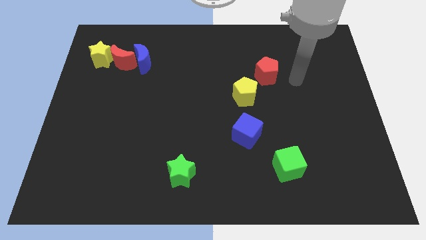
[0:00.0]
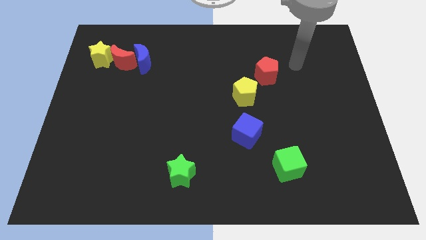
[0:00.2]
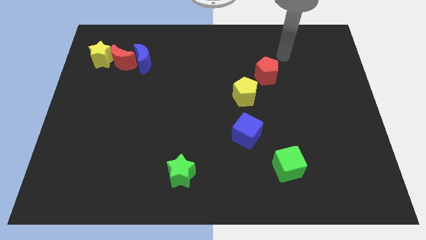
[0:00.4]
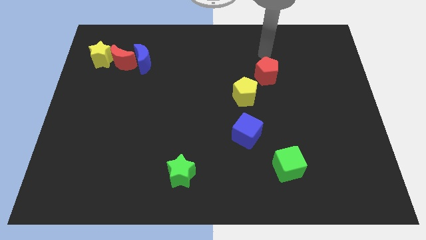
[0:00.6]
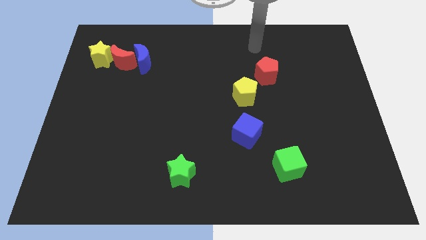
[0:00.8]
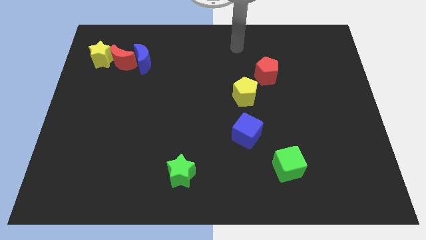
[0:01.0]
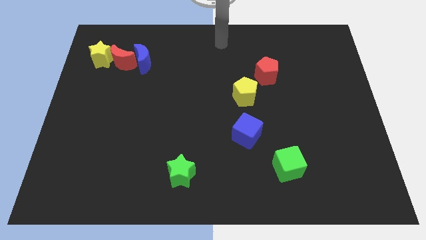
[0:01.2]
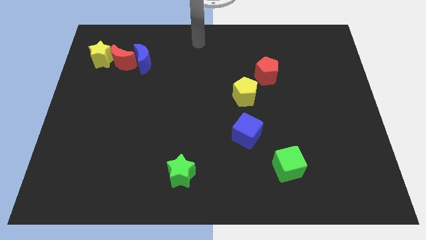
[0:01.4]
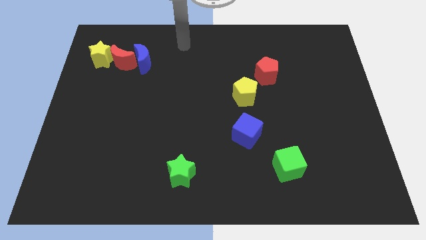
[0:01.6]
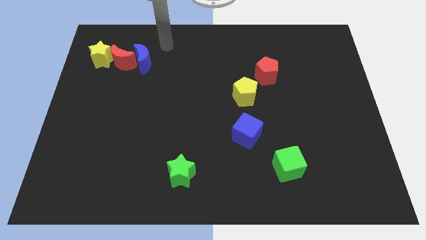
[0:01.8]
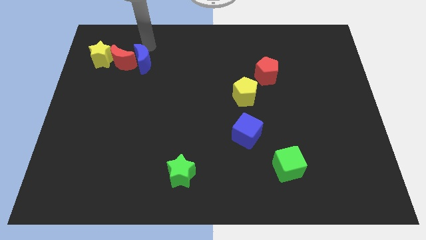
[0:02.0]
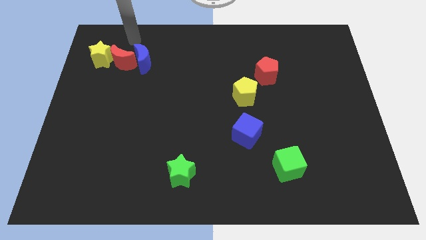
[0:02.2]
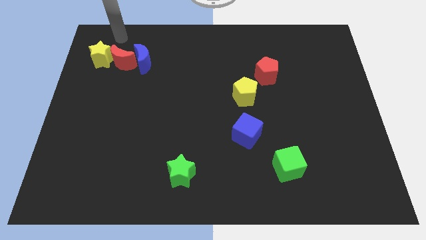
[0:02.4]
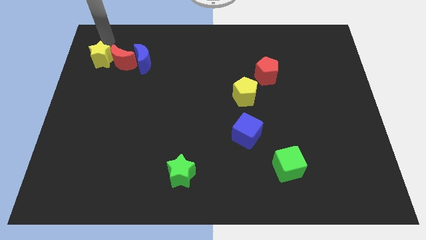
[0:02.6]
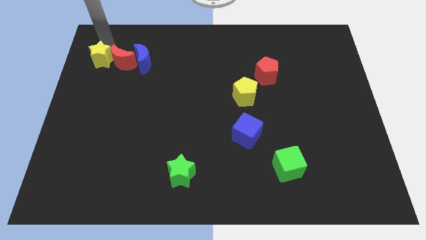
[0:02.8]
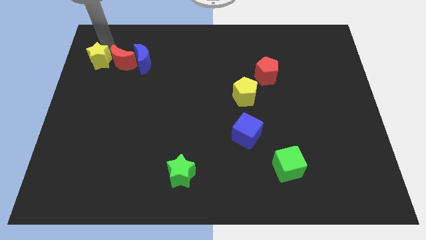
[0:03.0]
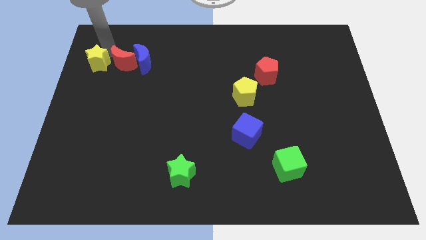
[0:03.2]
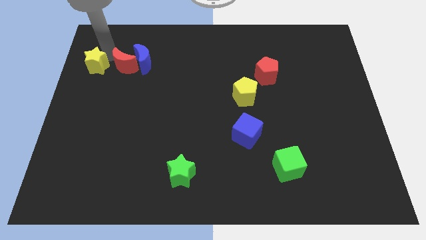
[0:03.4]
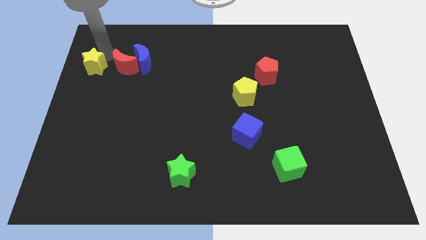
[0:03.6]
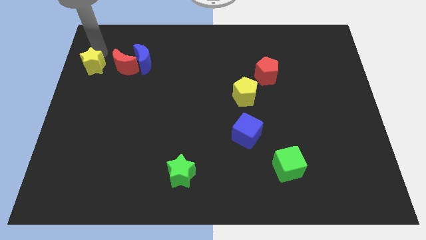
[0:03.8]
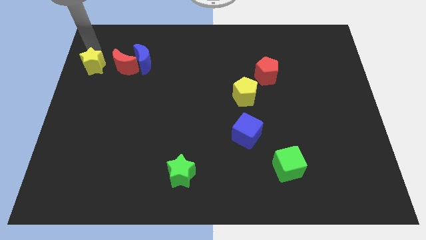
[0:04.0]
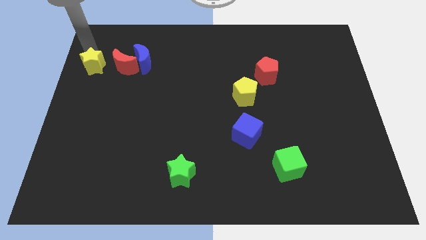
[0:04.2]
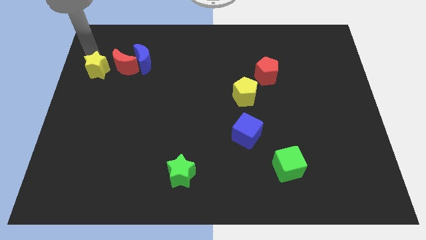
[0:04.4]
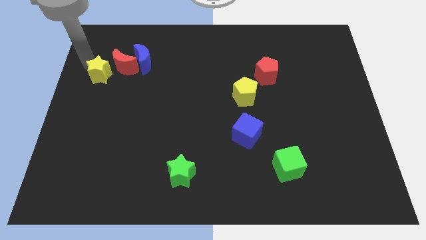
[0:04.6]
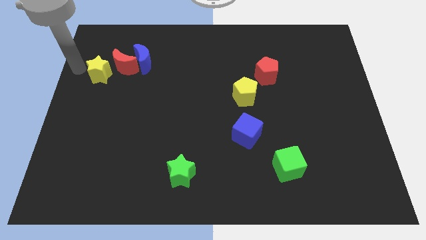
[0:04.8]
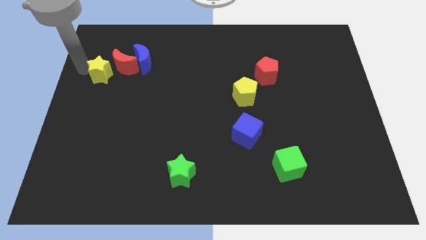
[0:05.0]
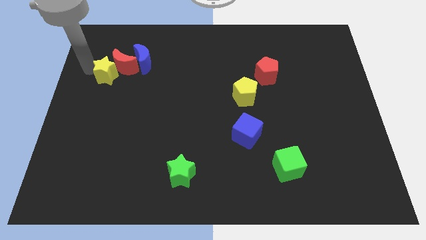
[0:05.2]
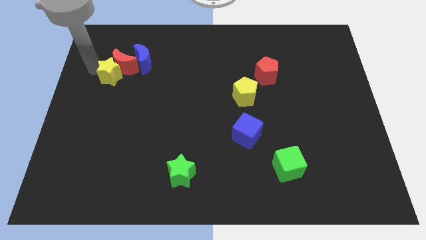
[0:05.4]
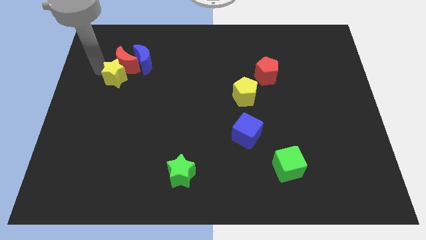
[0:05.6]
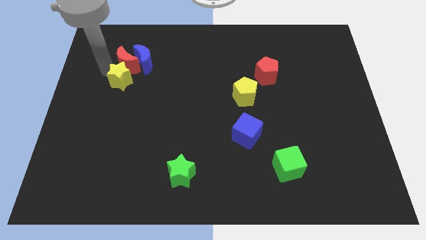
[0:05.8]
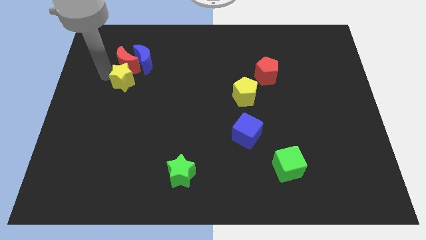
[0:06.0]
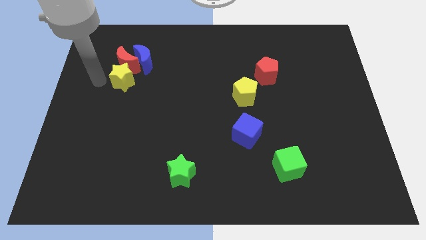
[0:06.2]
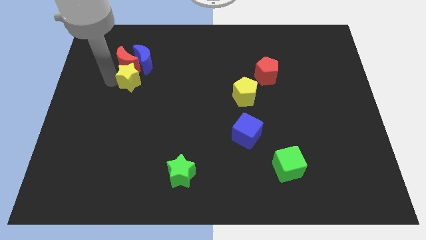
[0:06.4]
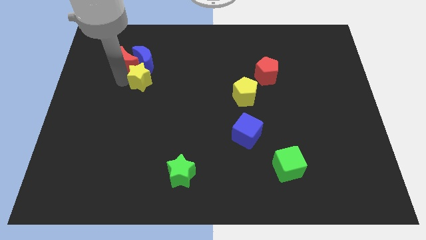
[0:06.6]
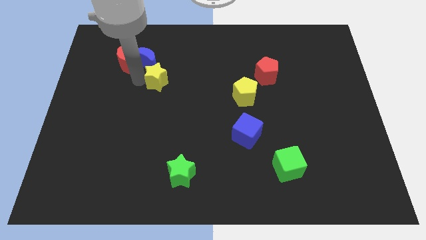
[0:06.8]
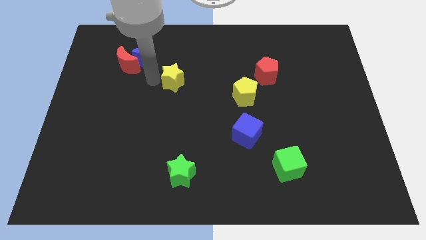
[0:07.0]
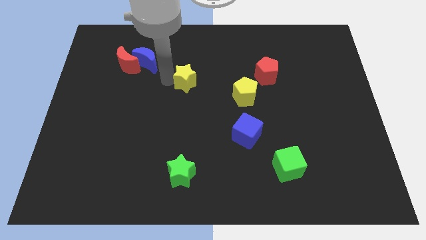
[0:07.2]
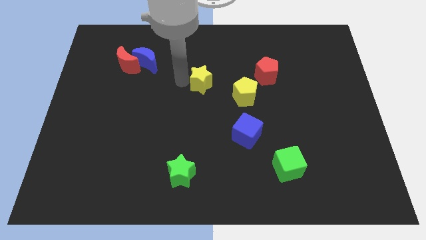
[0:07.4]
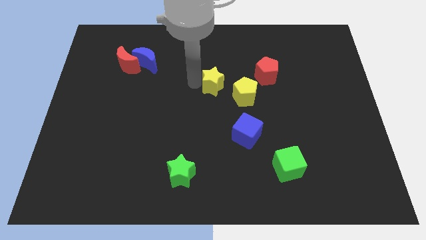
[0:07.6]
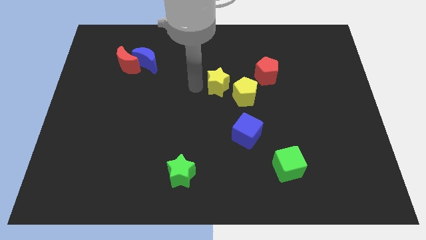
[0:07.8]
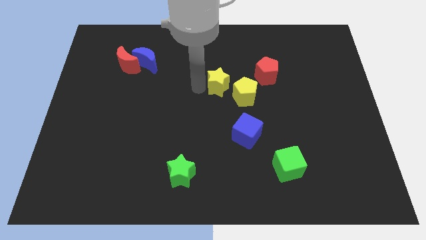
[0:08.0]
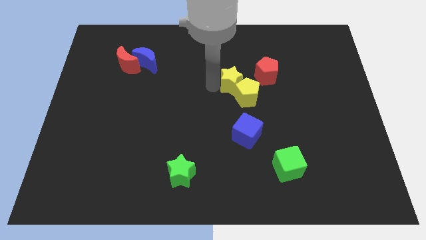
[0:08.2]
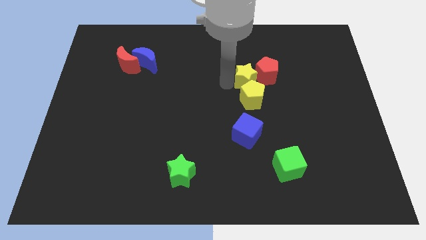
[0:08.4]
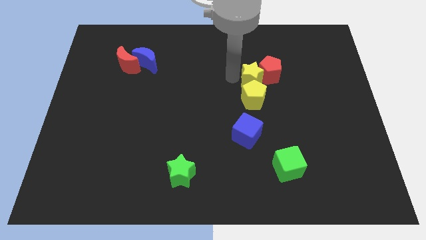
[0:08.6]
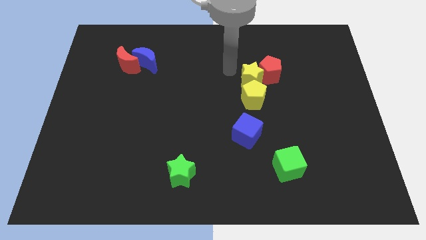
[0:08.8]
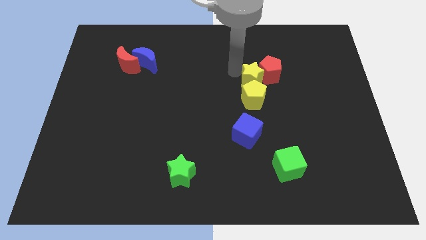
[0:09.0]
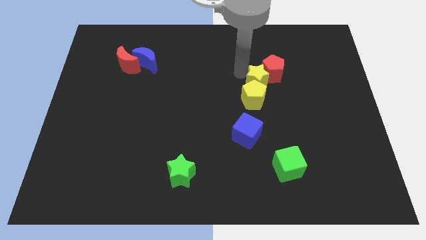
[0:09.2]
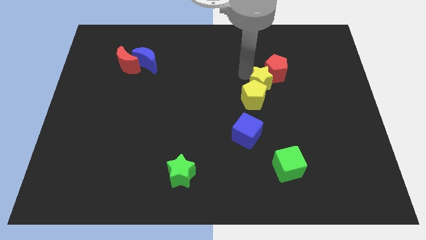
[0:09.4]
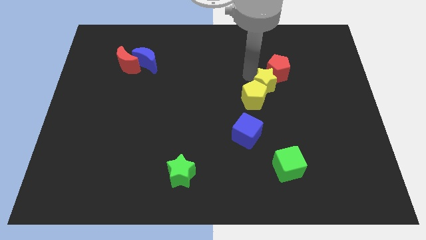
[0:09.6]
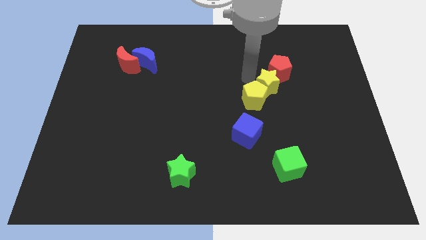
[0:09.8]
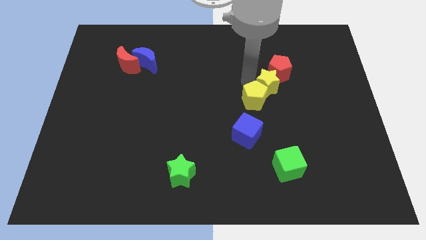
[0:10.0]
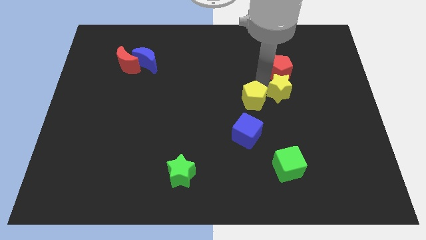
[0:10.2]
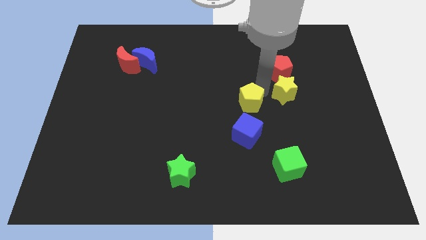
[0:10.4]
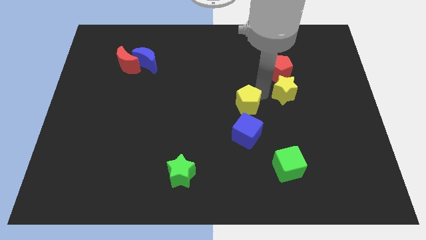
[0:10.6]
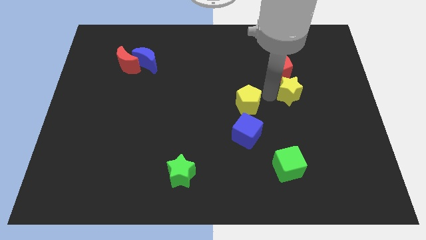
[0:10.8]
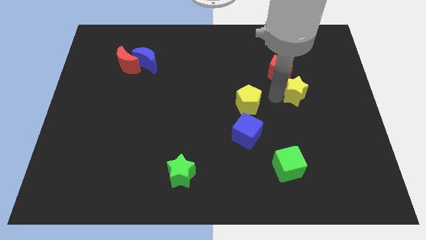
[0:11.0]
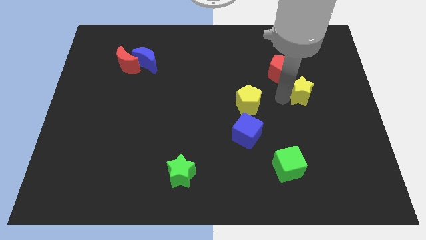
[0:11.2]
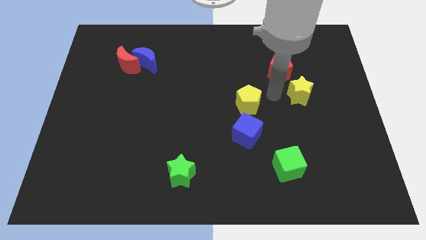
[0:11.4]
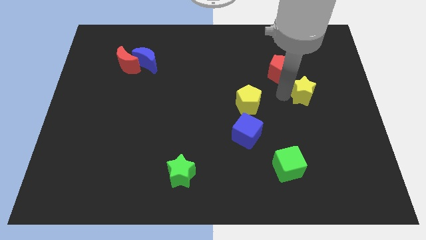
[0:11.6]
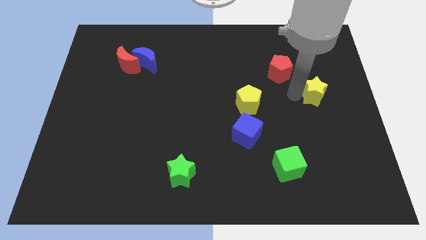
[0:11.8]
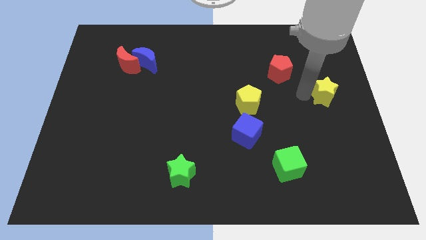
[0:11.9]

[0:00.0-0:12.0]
put the yellow star to the center right

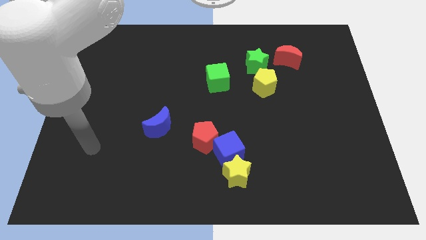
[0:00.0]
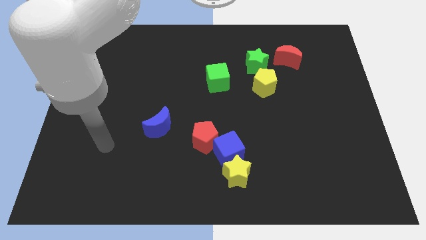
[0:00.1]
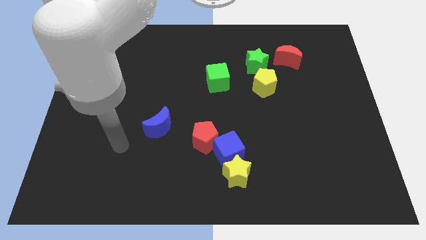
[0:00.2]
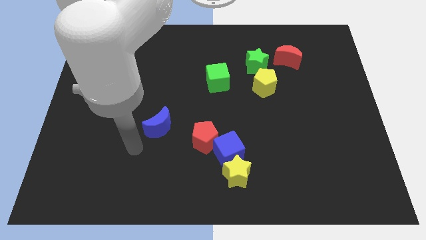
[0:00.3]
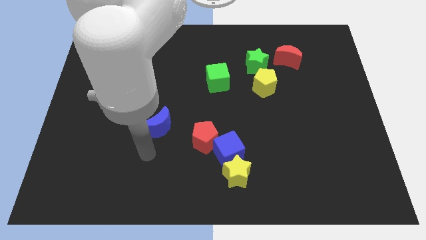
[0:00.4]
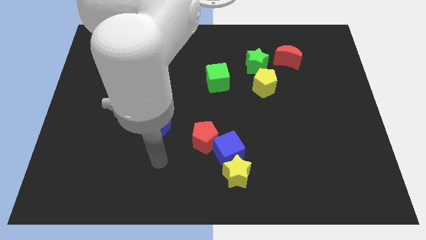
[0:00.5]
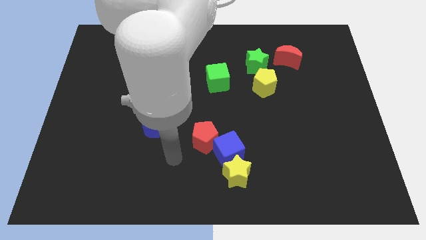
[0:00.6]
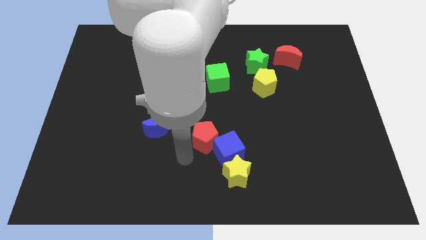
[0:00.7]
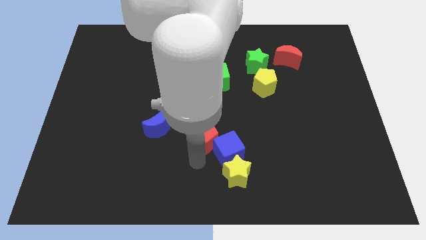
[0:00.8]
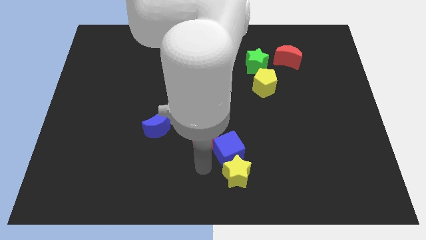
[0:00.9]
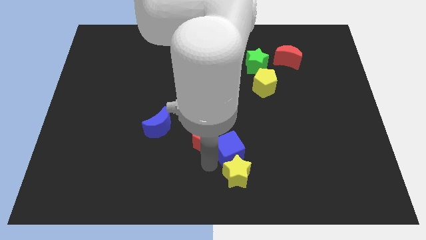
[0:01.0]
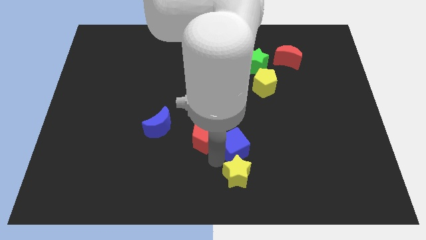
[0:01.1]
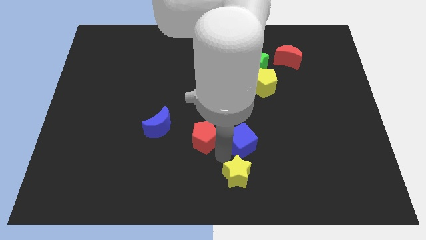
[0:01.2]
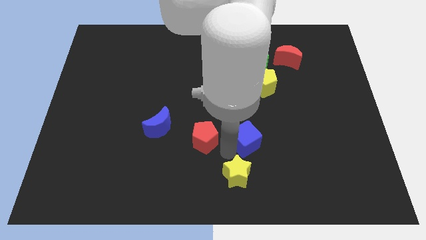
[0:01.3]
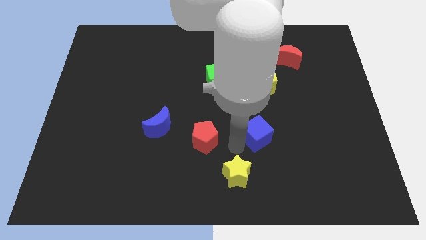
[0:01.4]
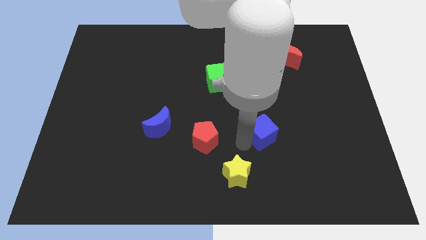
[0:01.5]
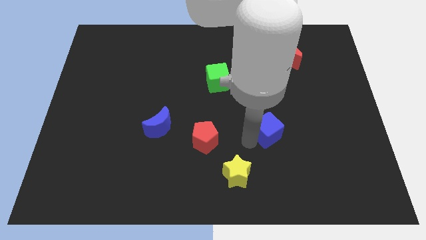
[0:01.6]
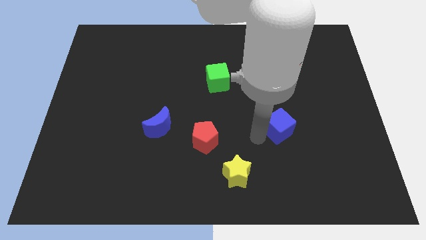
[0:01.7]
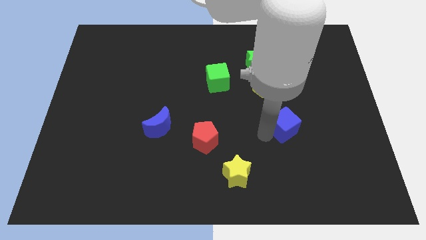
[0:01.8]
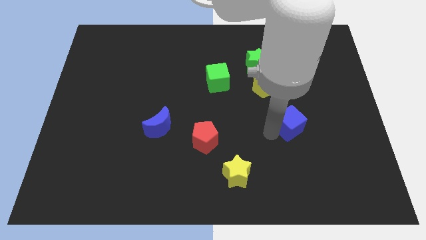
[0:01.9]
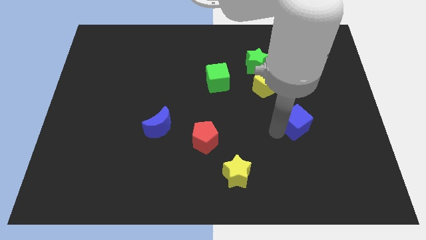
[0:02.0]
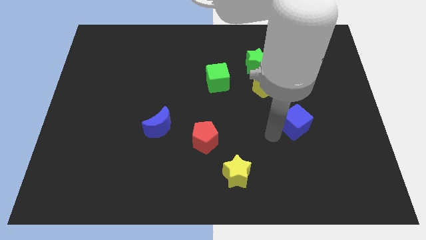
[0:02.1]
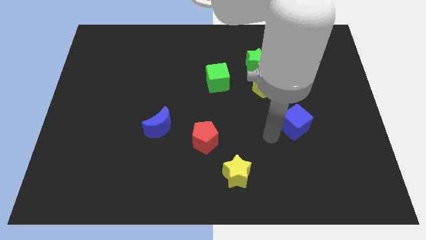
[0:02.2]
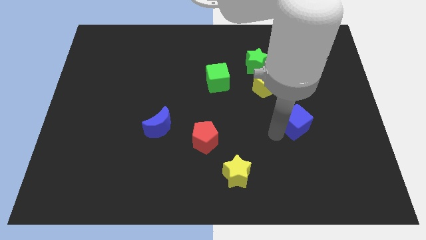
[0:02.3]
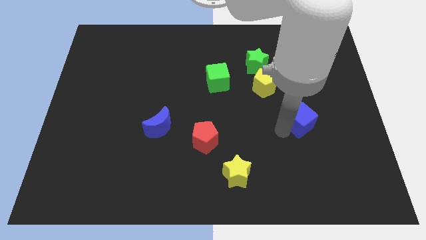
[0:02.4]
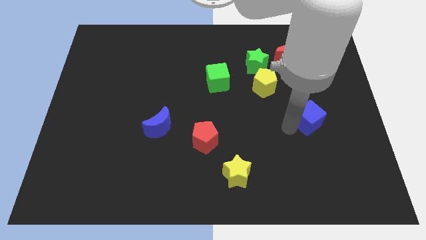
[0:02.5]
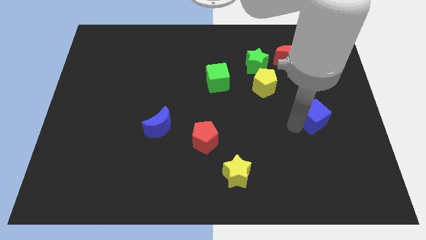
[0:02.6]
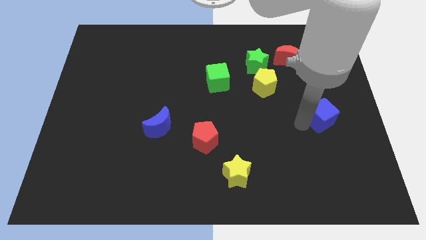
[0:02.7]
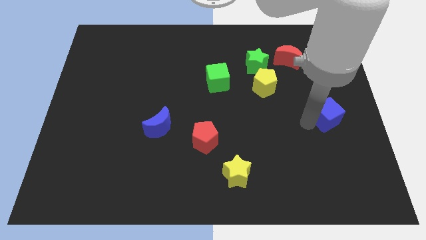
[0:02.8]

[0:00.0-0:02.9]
push the blue cube to the right side of the board
